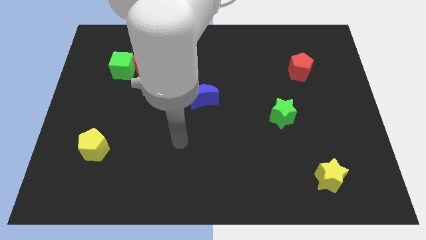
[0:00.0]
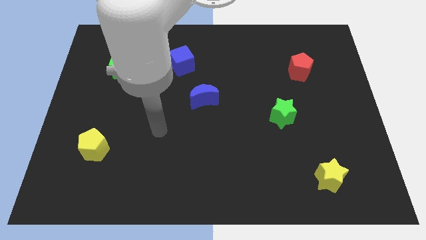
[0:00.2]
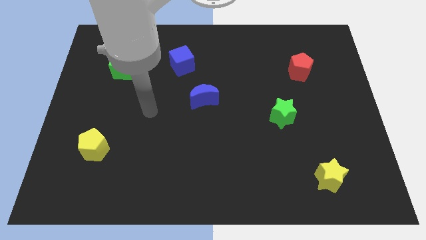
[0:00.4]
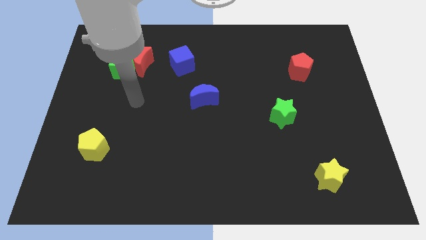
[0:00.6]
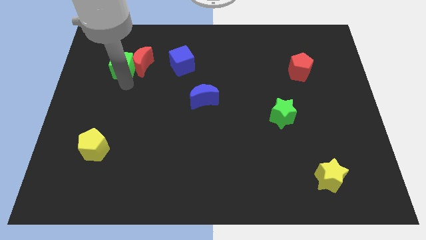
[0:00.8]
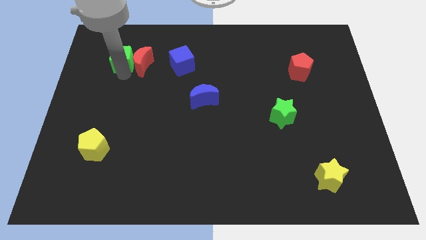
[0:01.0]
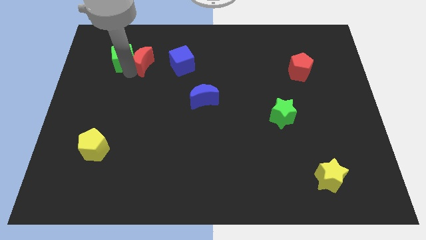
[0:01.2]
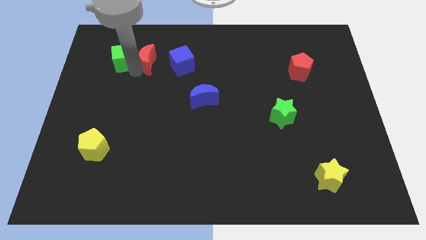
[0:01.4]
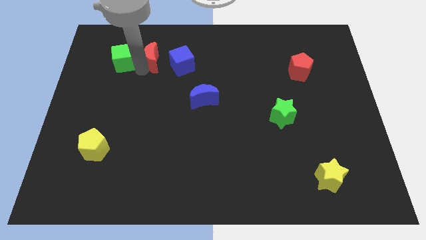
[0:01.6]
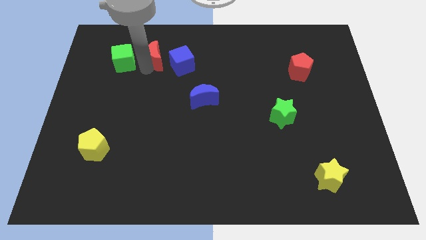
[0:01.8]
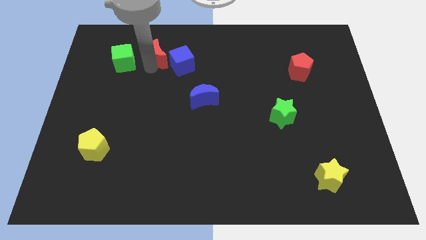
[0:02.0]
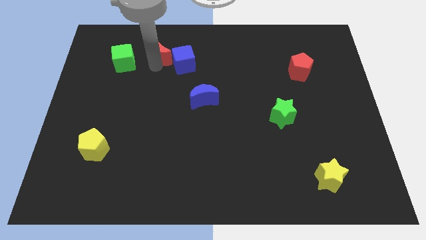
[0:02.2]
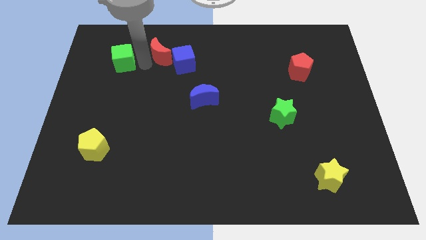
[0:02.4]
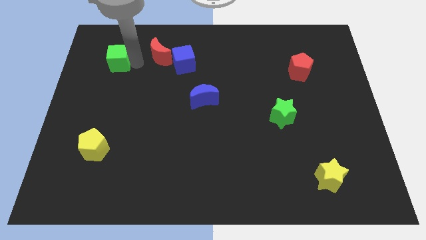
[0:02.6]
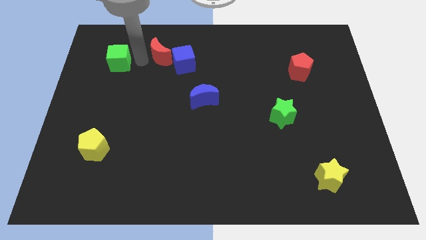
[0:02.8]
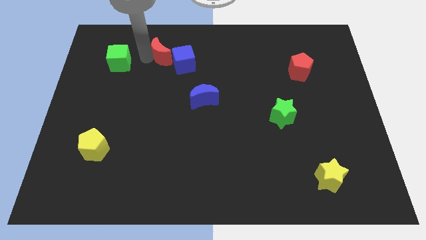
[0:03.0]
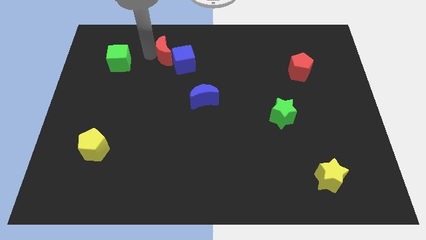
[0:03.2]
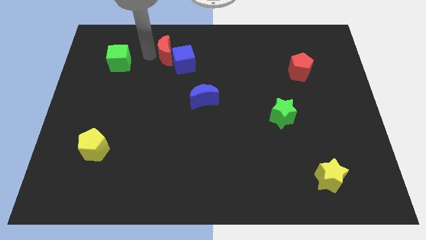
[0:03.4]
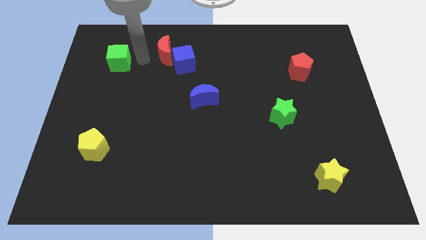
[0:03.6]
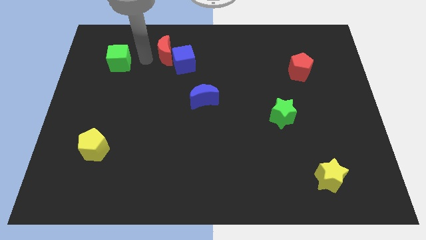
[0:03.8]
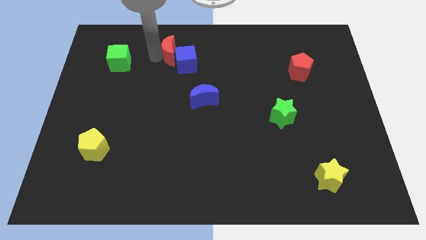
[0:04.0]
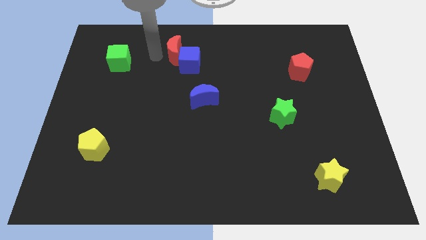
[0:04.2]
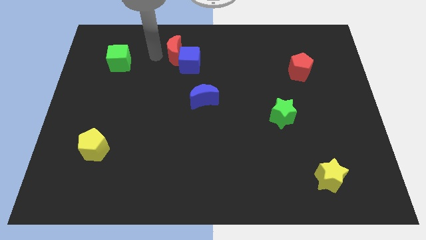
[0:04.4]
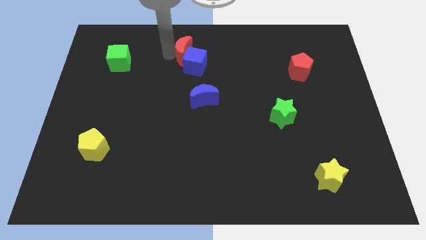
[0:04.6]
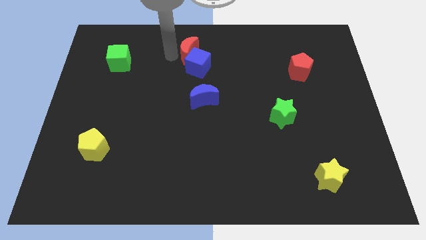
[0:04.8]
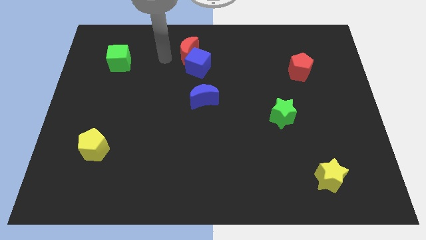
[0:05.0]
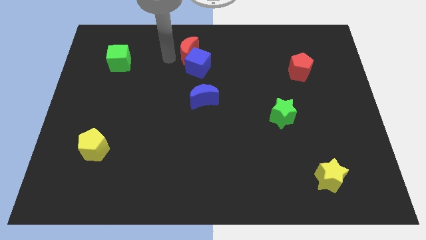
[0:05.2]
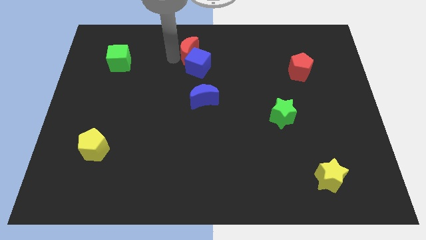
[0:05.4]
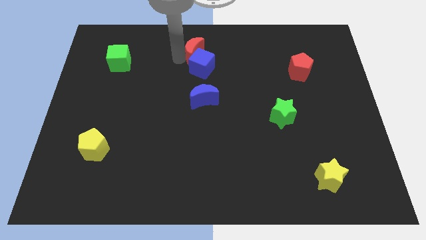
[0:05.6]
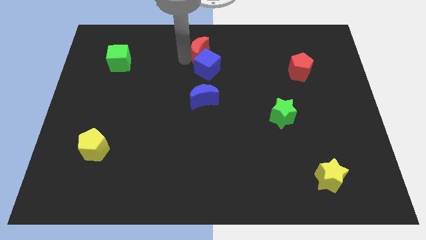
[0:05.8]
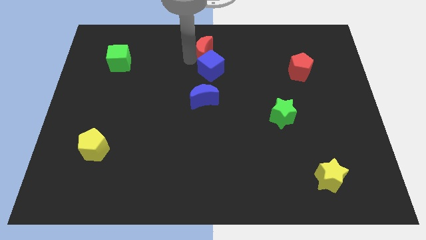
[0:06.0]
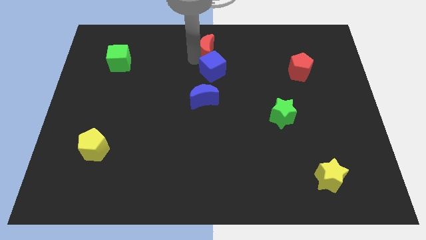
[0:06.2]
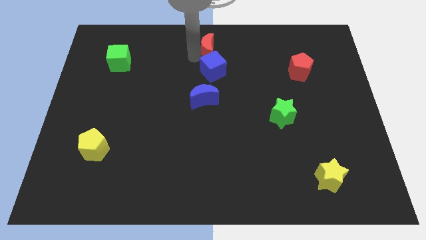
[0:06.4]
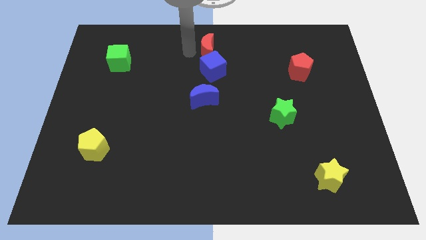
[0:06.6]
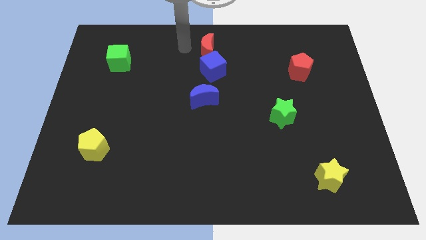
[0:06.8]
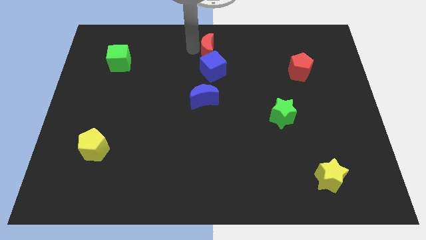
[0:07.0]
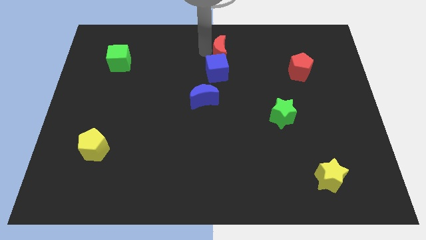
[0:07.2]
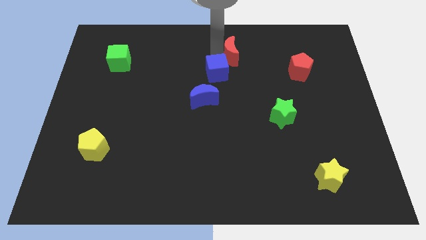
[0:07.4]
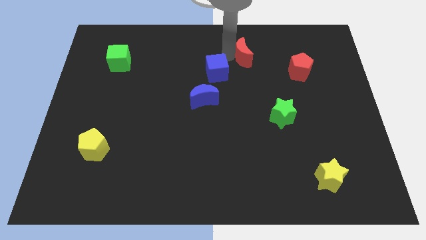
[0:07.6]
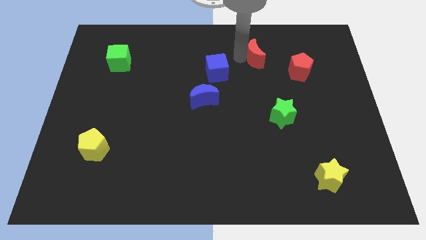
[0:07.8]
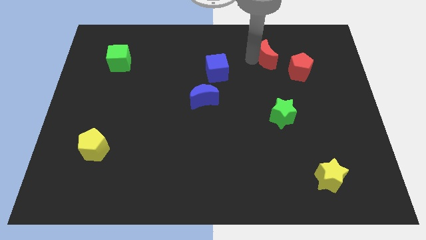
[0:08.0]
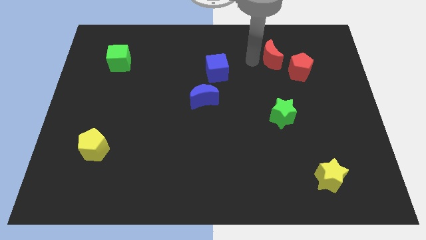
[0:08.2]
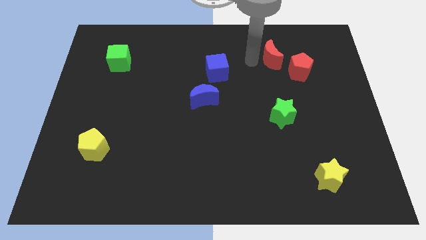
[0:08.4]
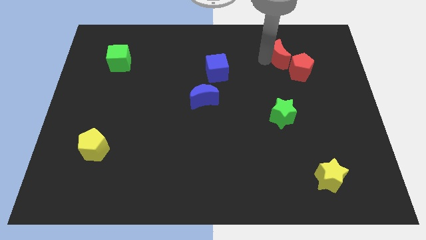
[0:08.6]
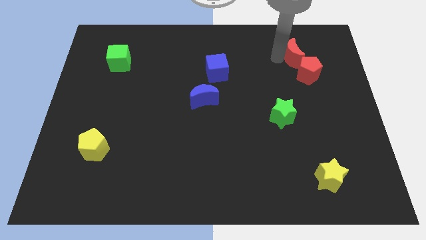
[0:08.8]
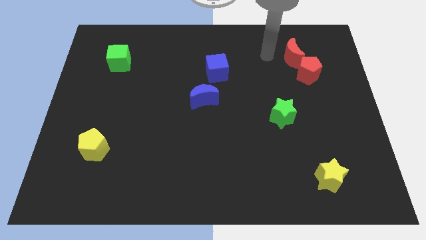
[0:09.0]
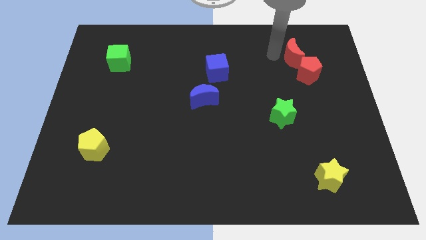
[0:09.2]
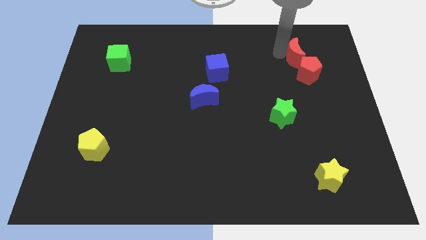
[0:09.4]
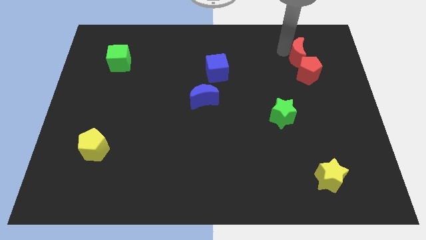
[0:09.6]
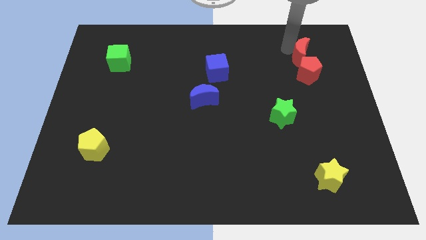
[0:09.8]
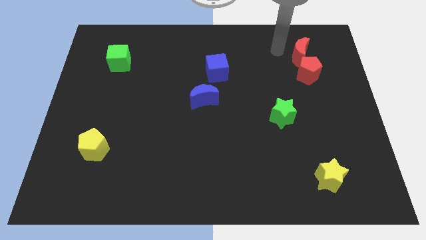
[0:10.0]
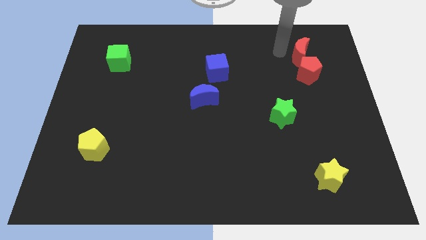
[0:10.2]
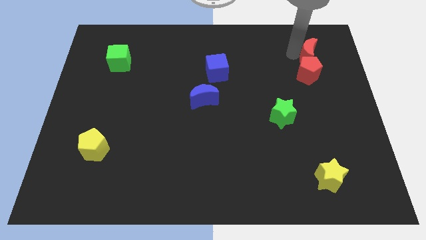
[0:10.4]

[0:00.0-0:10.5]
move the red moon diagonally up and to the right of the red pentagon

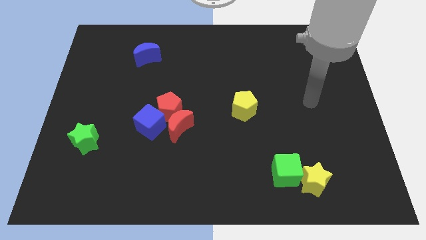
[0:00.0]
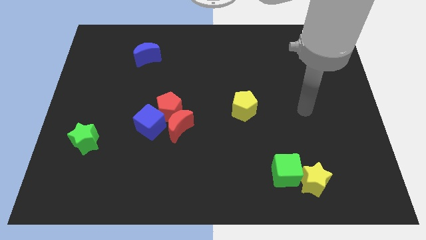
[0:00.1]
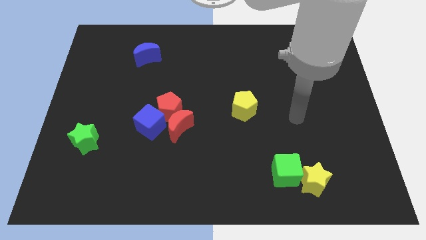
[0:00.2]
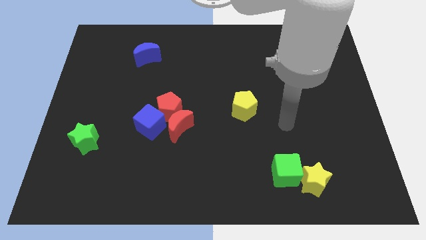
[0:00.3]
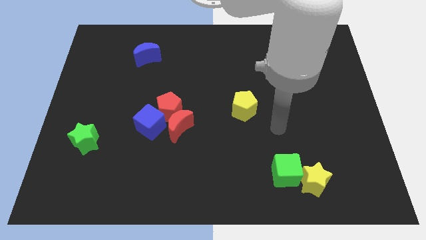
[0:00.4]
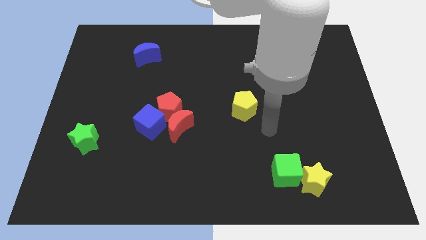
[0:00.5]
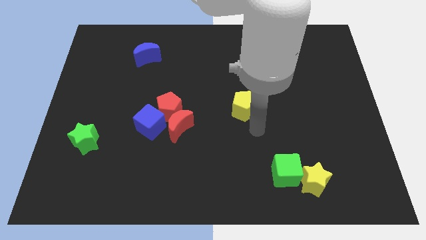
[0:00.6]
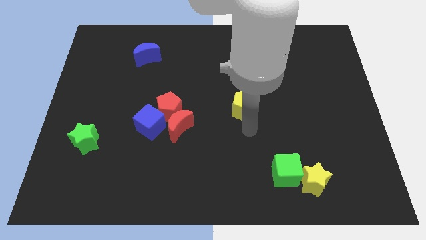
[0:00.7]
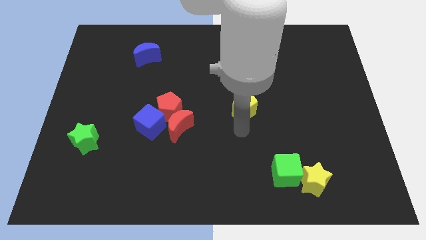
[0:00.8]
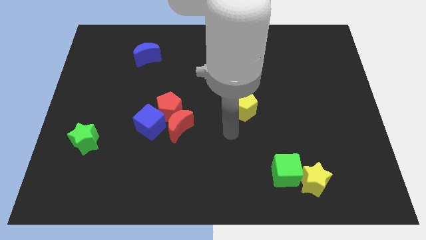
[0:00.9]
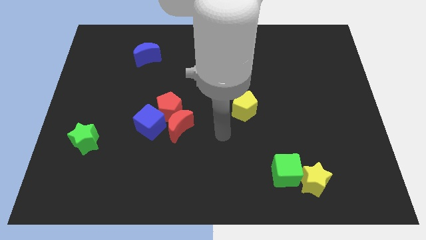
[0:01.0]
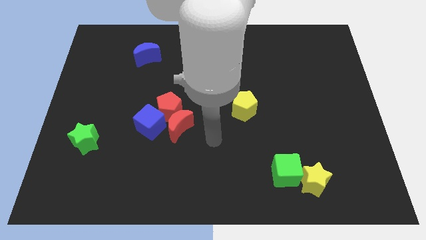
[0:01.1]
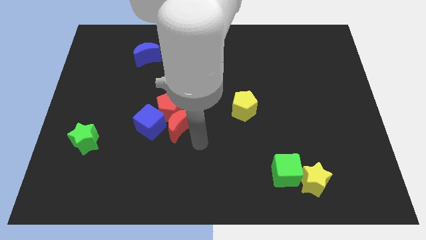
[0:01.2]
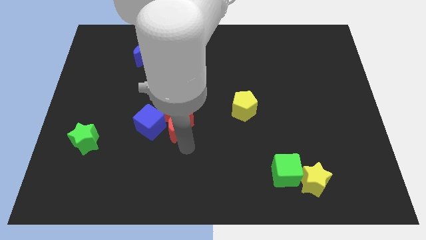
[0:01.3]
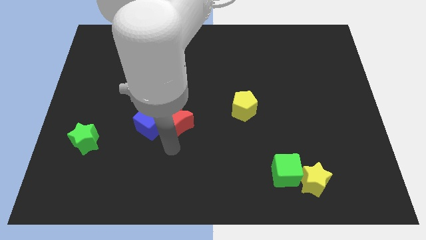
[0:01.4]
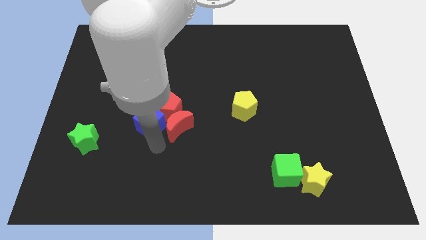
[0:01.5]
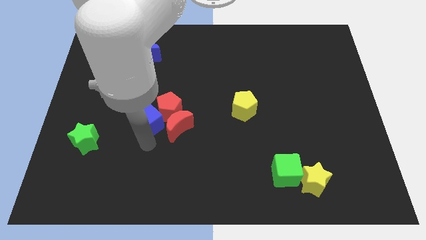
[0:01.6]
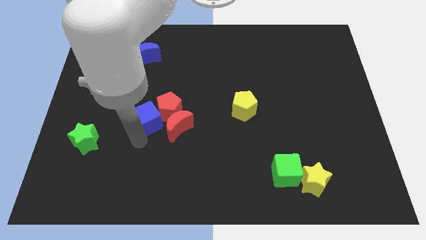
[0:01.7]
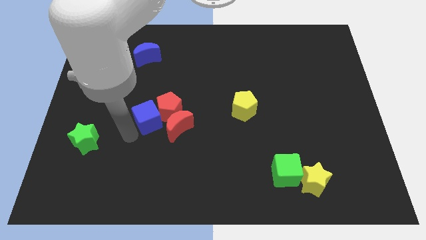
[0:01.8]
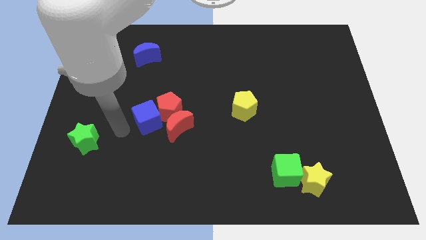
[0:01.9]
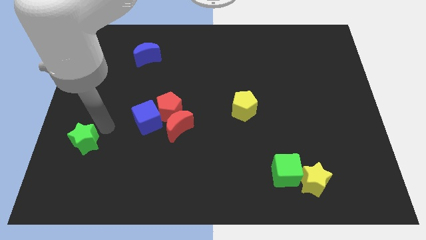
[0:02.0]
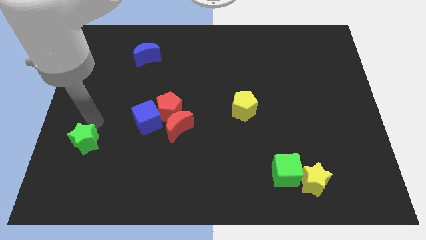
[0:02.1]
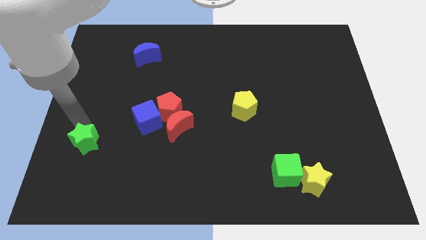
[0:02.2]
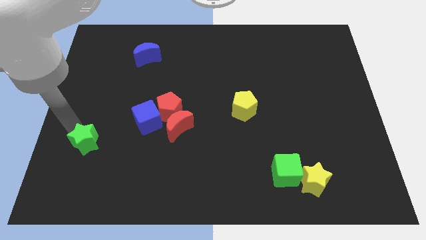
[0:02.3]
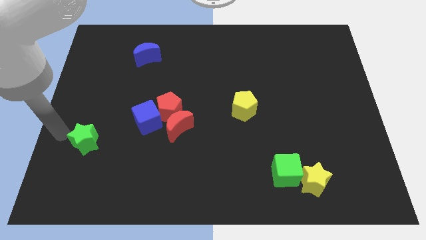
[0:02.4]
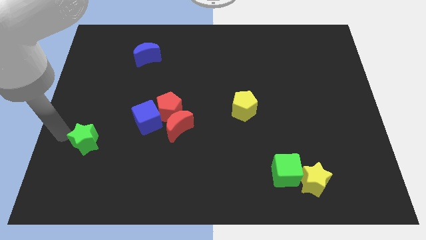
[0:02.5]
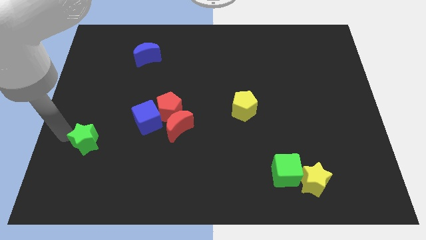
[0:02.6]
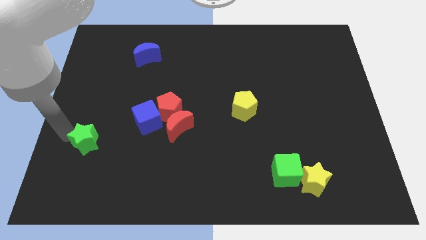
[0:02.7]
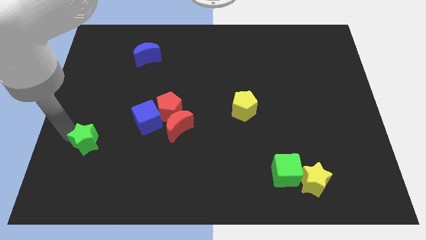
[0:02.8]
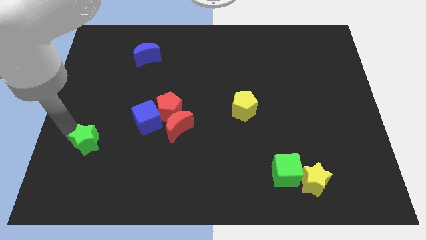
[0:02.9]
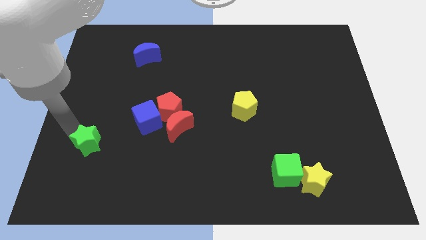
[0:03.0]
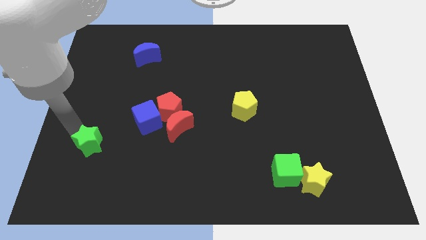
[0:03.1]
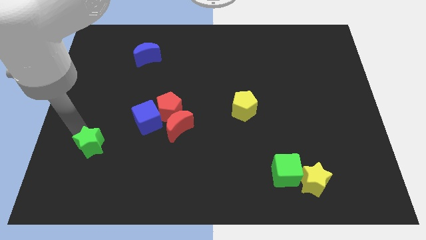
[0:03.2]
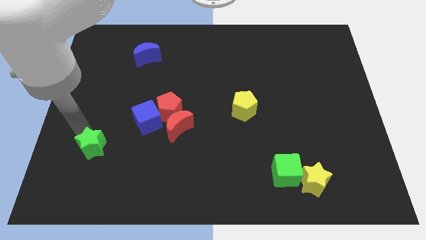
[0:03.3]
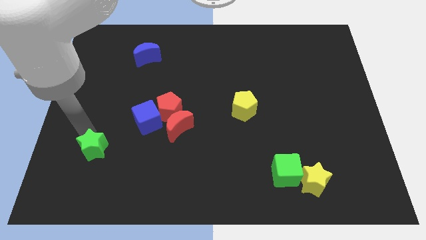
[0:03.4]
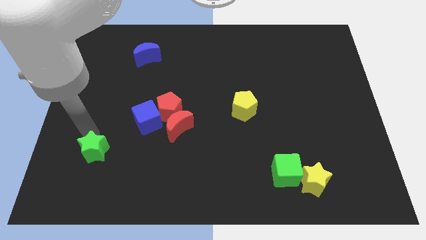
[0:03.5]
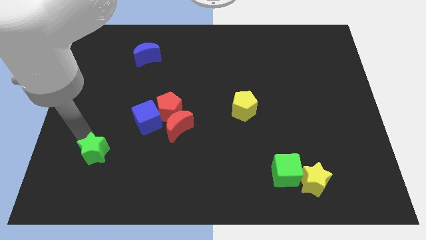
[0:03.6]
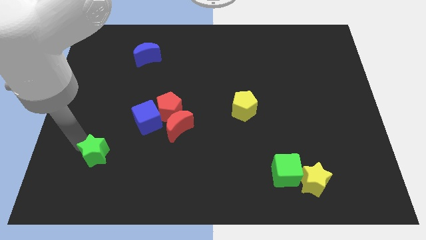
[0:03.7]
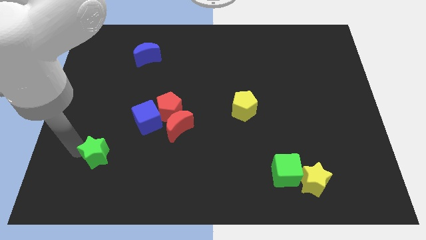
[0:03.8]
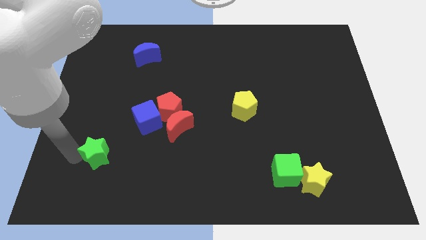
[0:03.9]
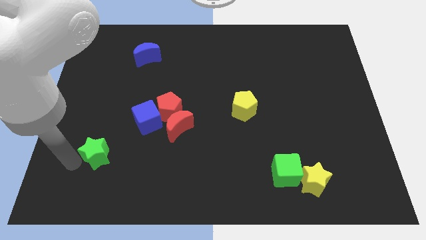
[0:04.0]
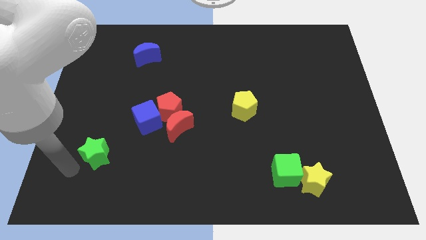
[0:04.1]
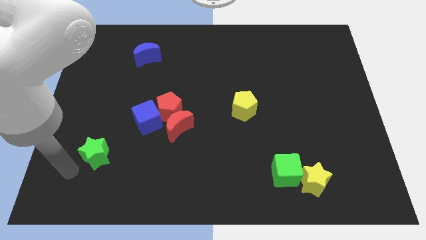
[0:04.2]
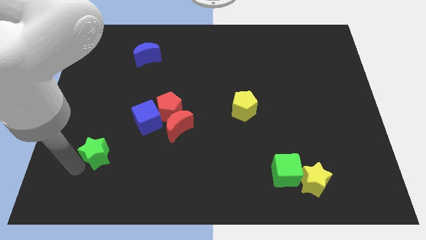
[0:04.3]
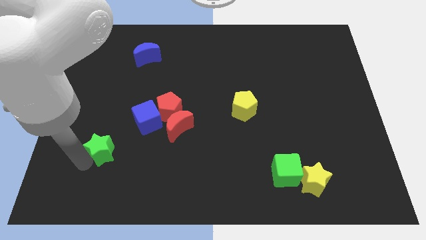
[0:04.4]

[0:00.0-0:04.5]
push the green star to the bottom left side of the blue cube
